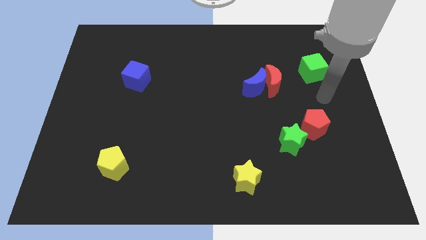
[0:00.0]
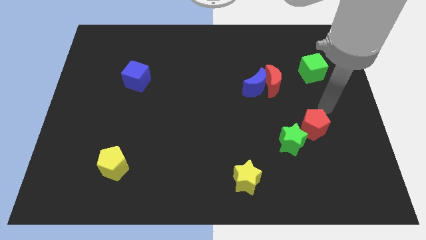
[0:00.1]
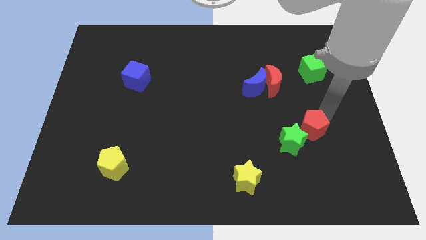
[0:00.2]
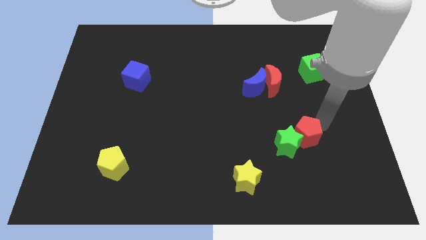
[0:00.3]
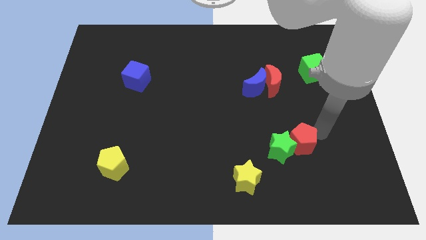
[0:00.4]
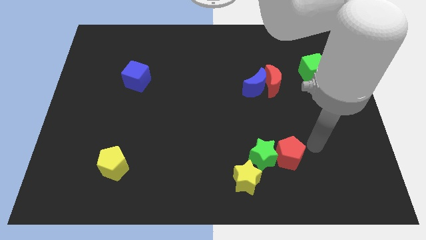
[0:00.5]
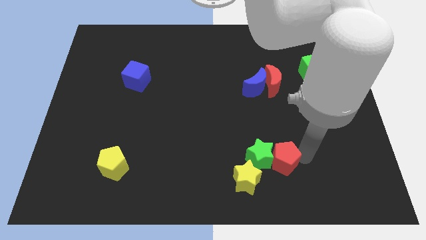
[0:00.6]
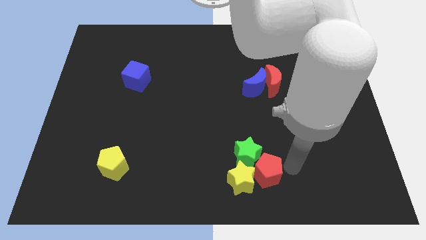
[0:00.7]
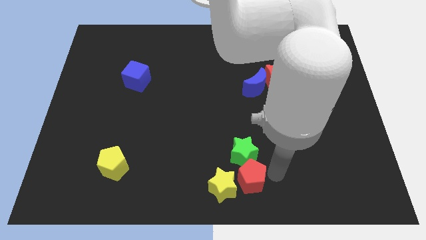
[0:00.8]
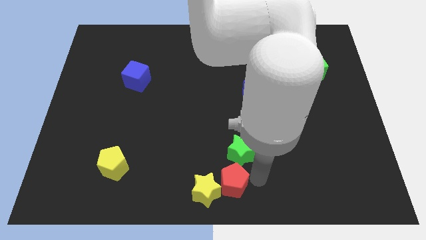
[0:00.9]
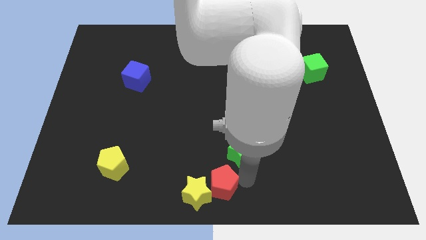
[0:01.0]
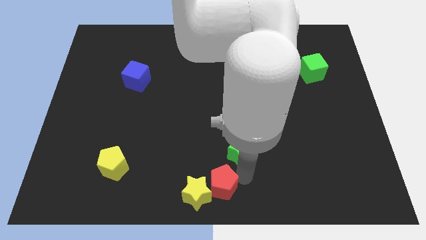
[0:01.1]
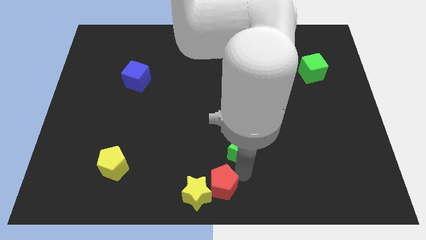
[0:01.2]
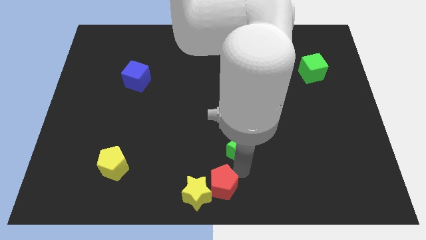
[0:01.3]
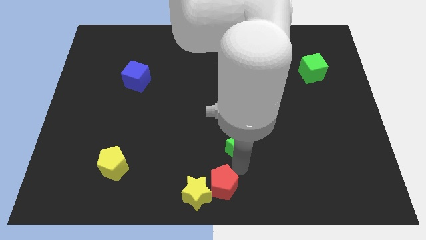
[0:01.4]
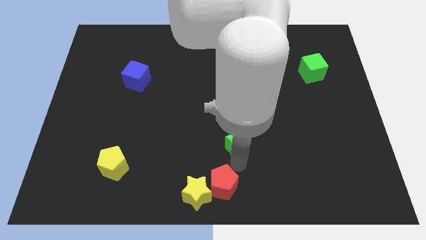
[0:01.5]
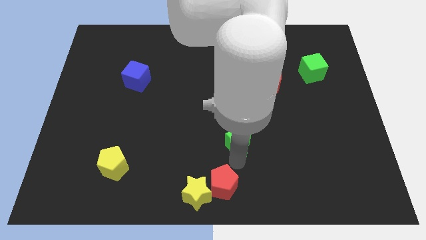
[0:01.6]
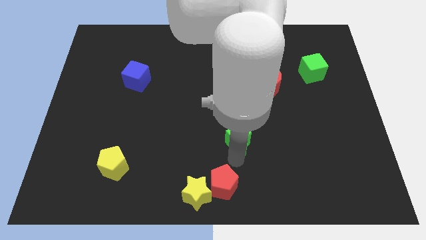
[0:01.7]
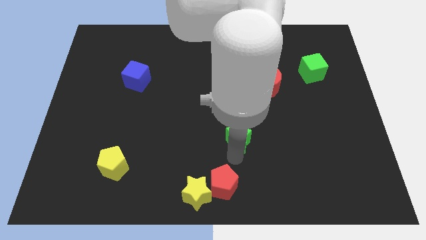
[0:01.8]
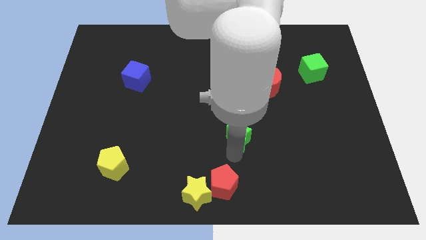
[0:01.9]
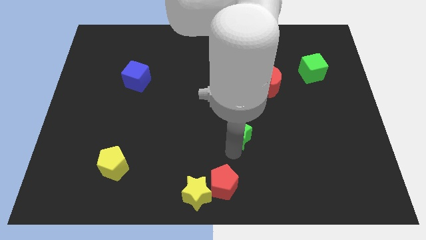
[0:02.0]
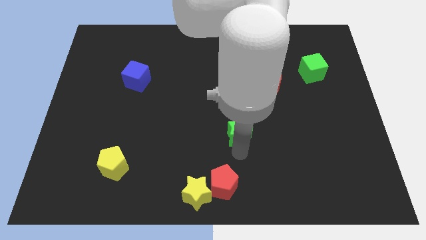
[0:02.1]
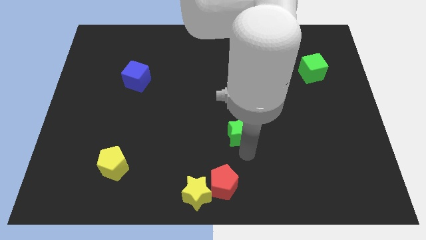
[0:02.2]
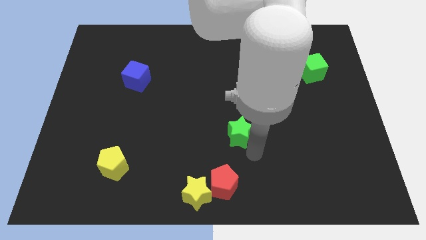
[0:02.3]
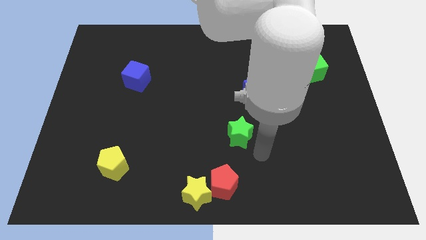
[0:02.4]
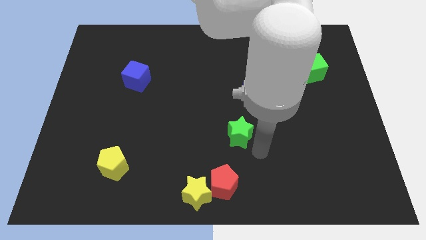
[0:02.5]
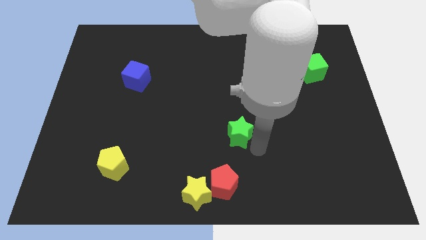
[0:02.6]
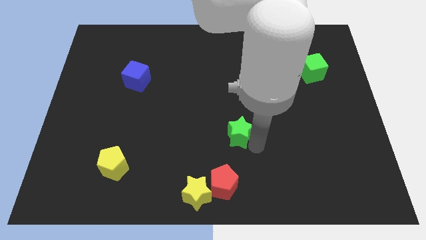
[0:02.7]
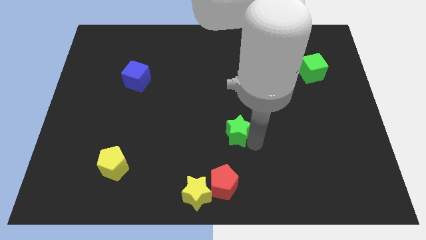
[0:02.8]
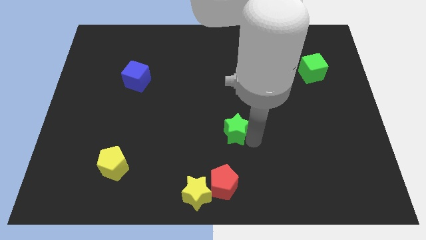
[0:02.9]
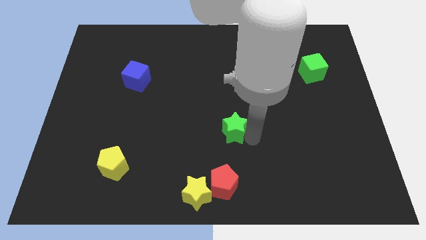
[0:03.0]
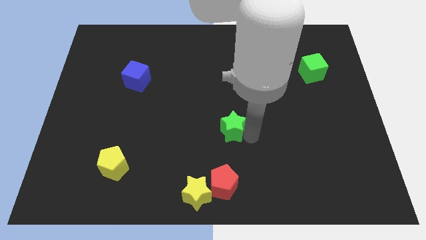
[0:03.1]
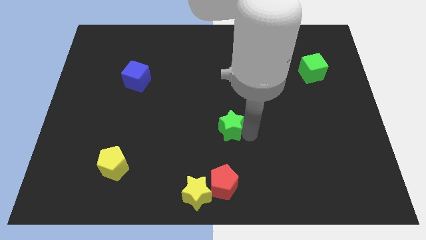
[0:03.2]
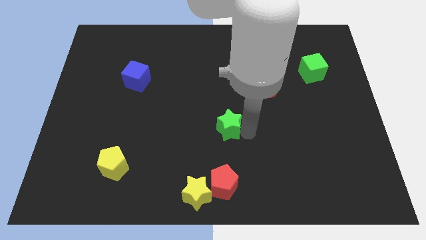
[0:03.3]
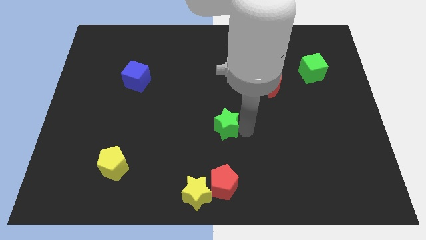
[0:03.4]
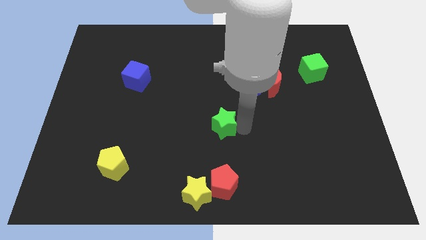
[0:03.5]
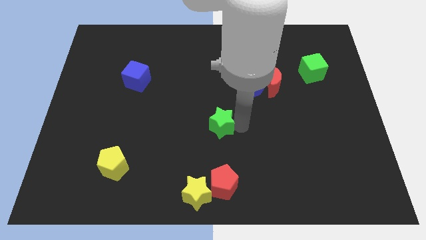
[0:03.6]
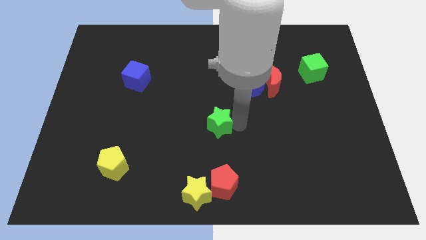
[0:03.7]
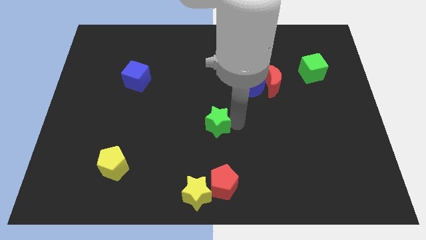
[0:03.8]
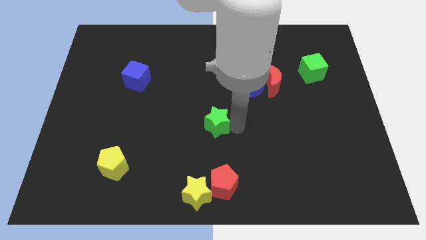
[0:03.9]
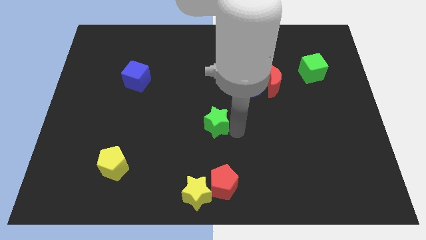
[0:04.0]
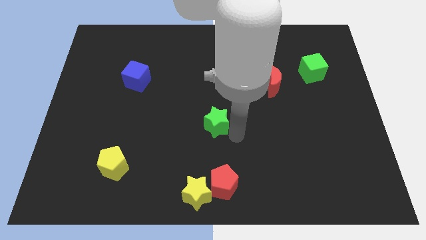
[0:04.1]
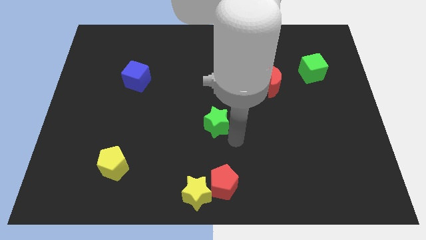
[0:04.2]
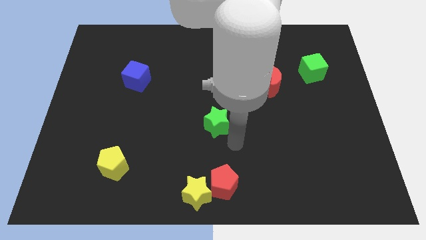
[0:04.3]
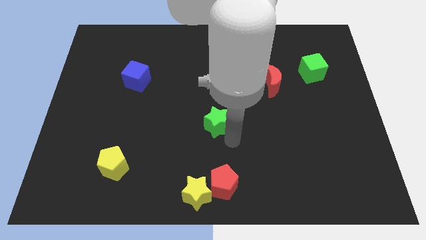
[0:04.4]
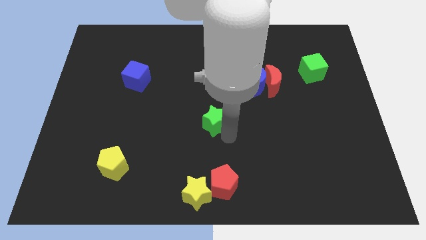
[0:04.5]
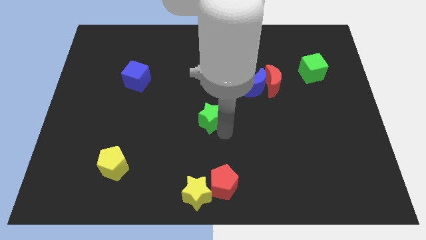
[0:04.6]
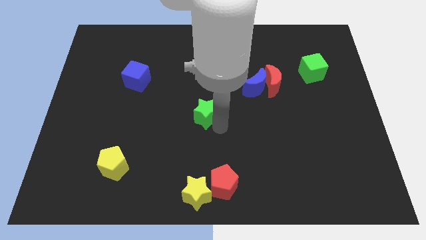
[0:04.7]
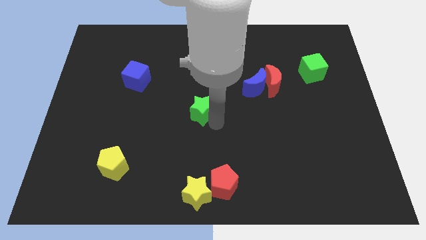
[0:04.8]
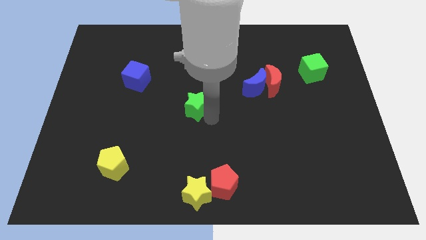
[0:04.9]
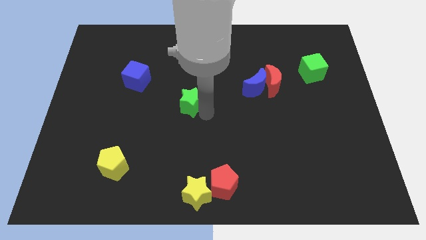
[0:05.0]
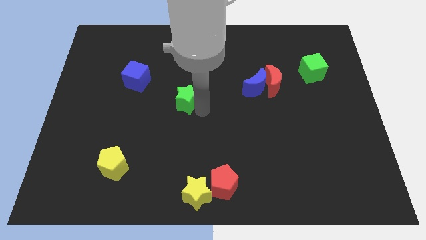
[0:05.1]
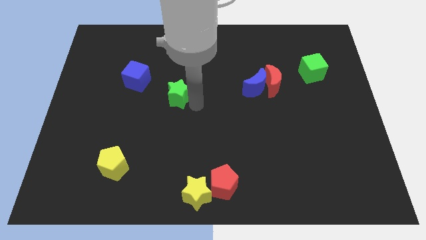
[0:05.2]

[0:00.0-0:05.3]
push the green star diagonally down and to the right of the blue cube

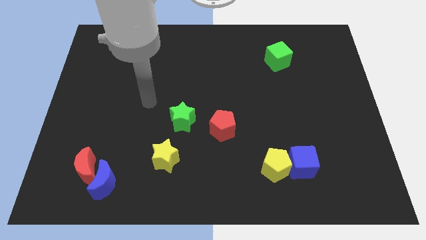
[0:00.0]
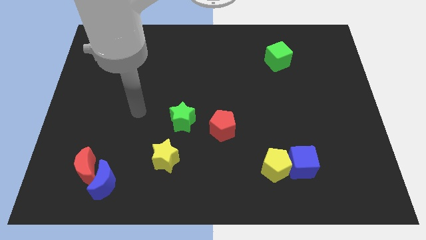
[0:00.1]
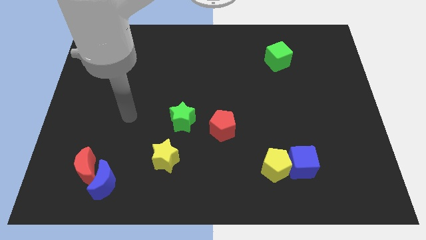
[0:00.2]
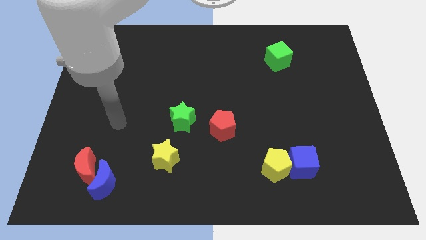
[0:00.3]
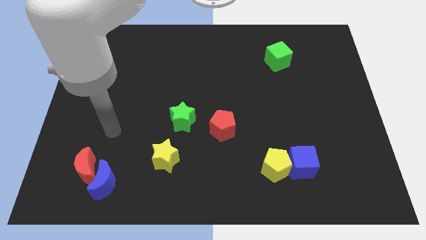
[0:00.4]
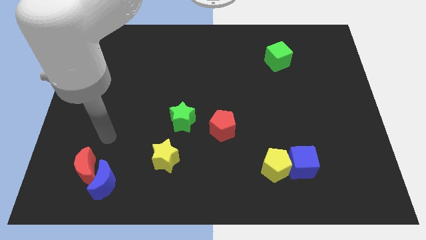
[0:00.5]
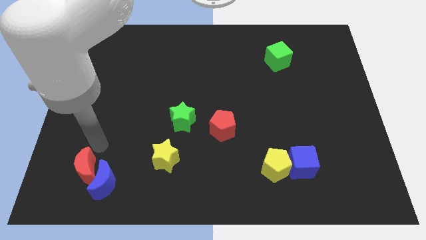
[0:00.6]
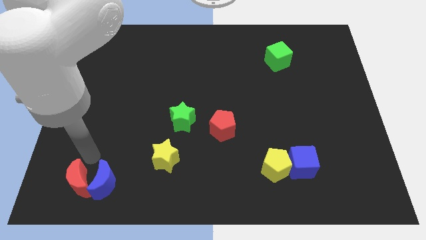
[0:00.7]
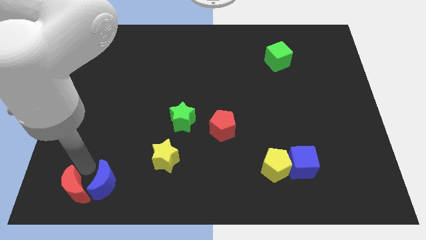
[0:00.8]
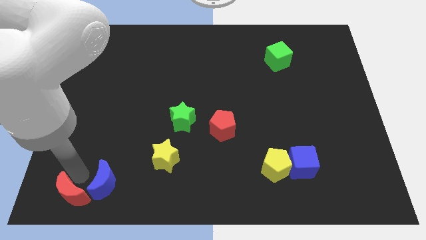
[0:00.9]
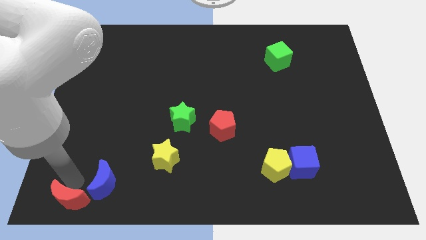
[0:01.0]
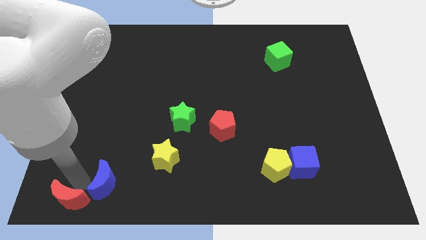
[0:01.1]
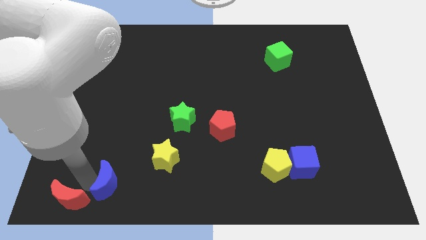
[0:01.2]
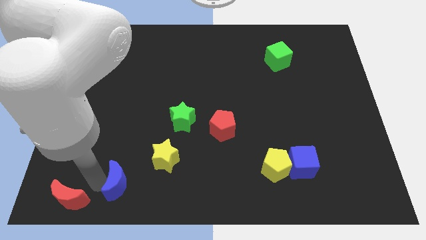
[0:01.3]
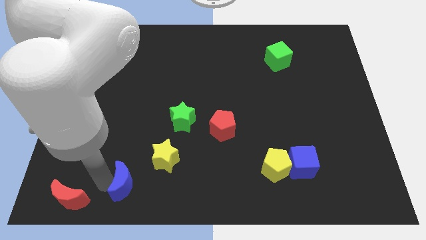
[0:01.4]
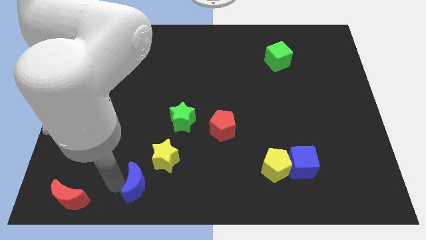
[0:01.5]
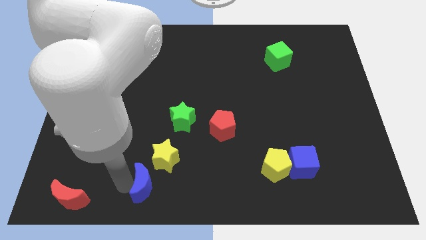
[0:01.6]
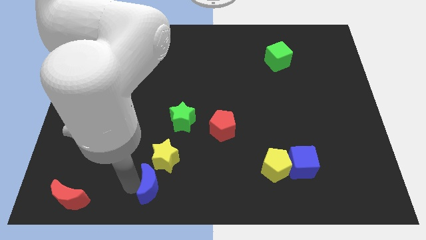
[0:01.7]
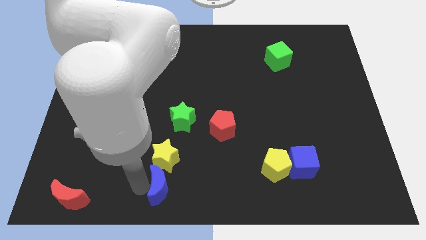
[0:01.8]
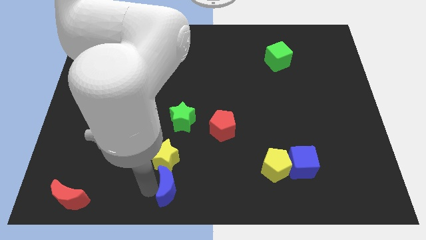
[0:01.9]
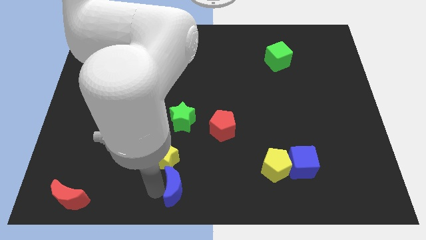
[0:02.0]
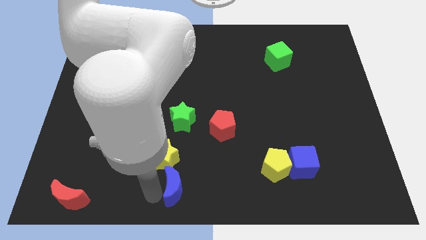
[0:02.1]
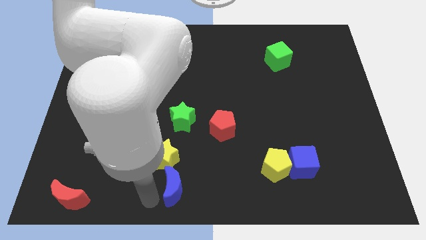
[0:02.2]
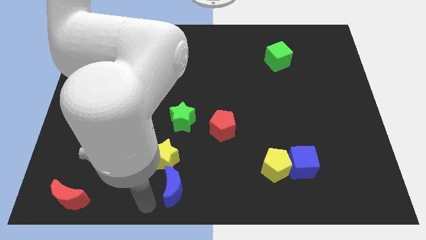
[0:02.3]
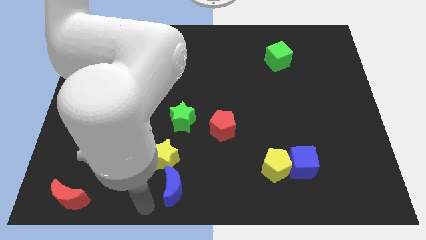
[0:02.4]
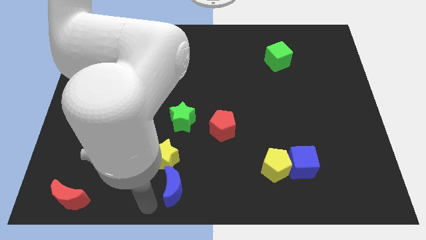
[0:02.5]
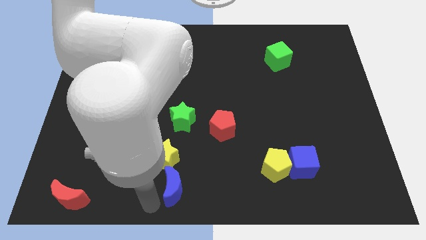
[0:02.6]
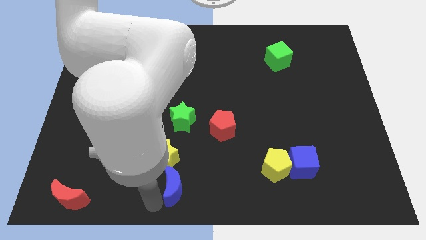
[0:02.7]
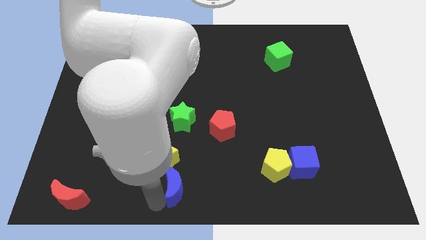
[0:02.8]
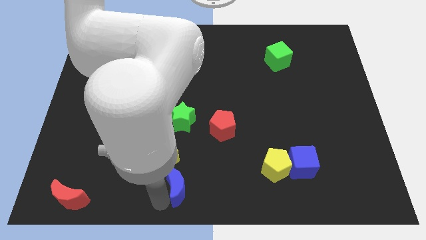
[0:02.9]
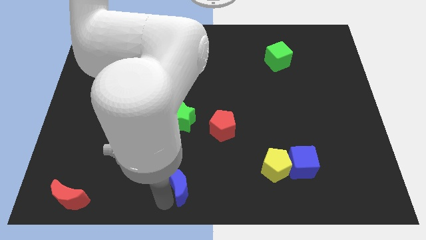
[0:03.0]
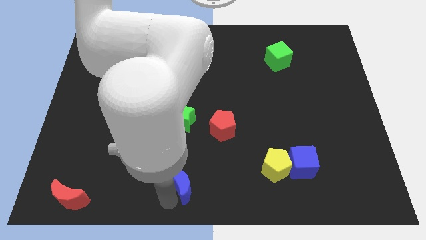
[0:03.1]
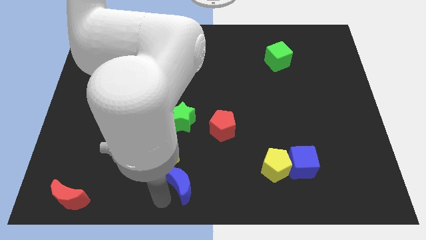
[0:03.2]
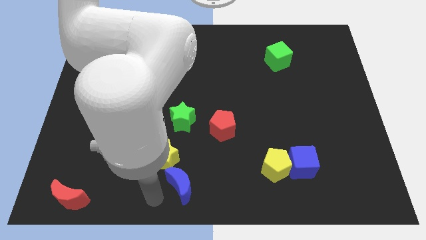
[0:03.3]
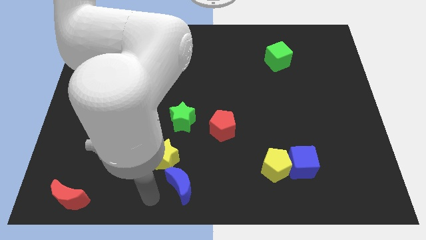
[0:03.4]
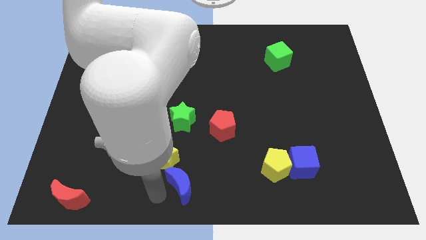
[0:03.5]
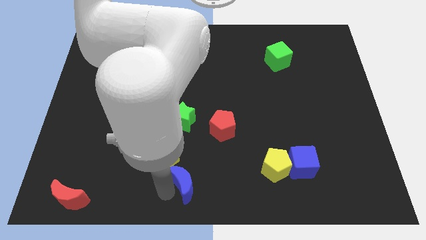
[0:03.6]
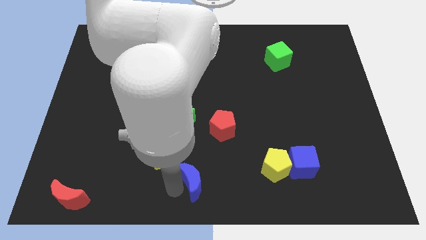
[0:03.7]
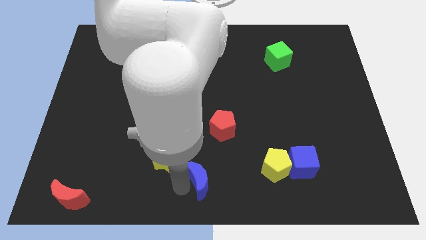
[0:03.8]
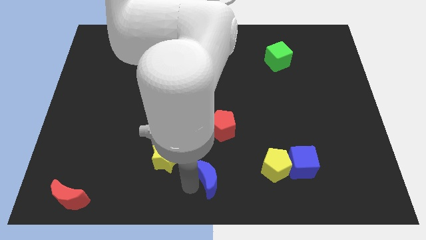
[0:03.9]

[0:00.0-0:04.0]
move the blue moon just left of the yellow pentagon
